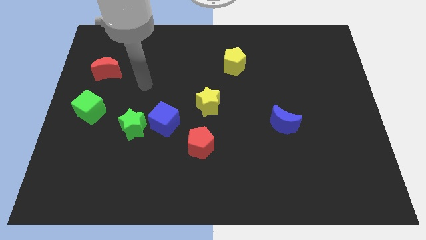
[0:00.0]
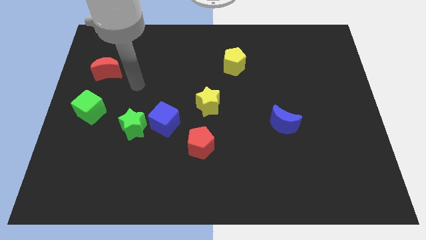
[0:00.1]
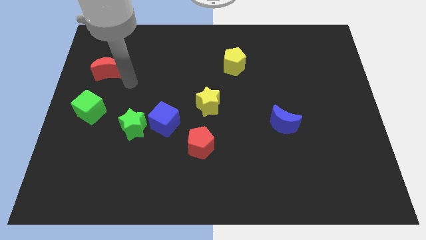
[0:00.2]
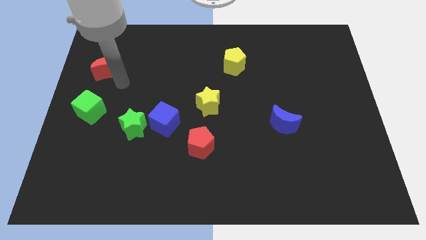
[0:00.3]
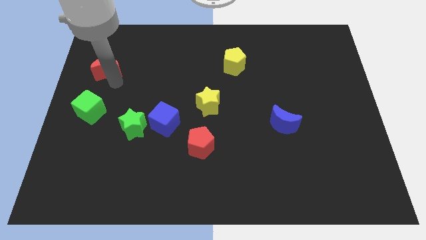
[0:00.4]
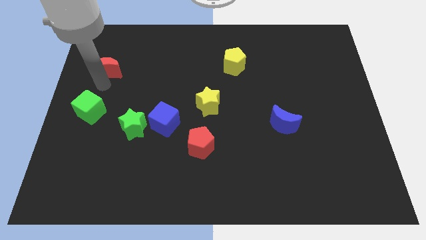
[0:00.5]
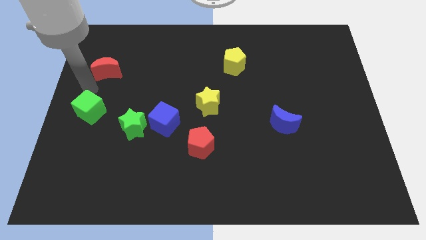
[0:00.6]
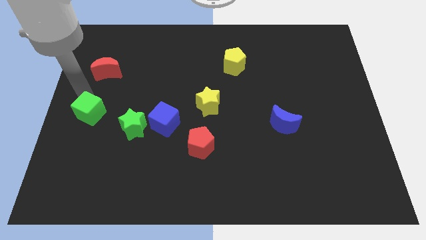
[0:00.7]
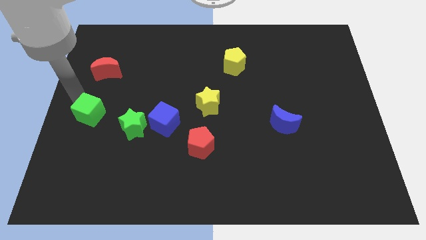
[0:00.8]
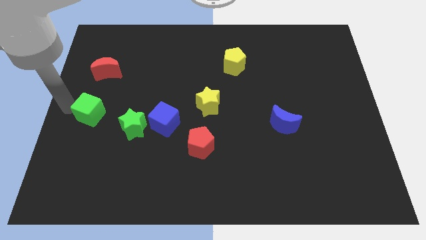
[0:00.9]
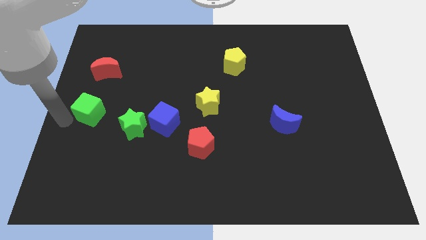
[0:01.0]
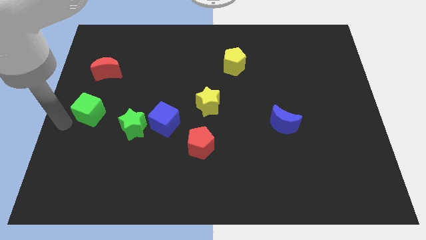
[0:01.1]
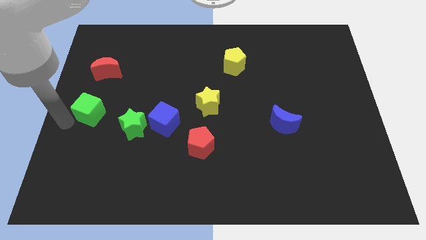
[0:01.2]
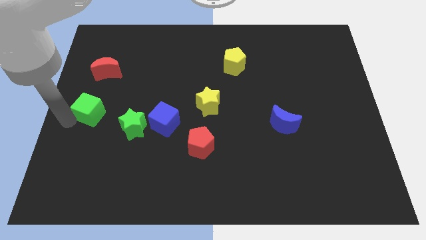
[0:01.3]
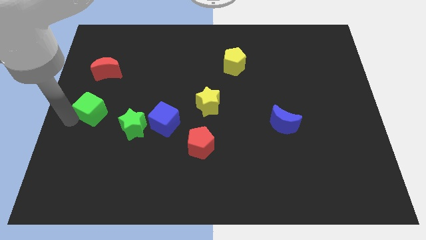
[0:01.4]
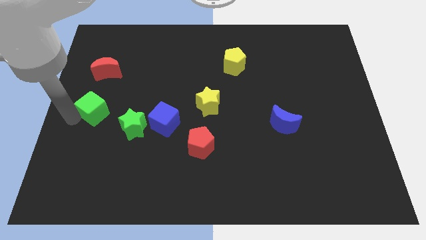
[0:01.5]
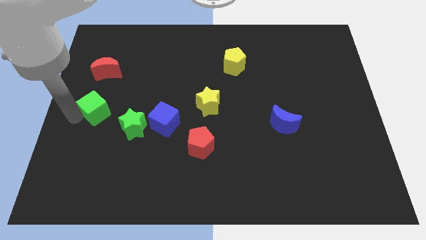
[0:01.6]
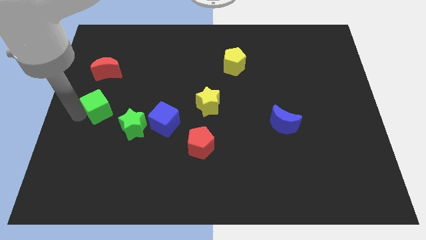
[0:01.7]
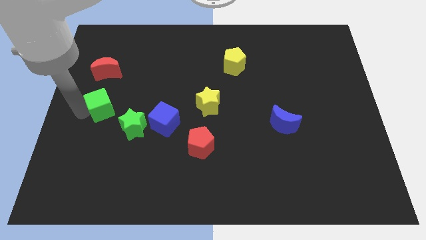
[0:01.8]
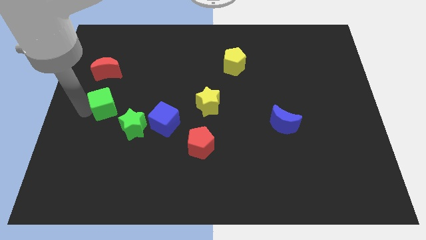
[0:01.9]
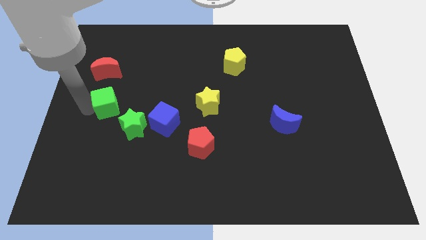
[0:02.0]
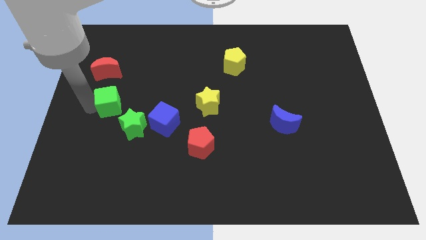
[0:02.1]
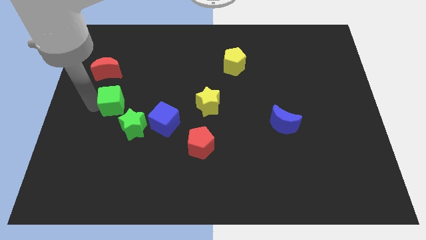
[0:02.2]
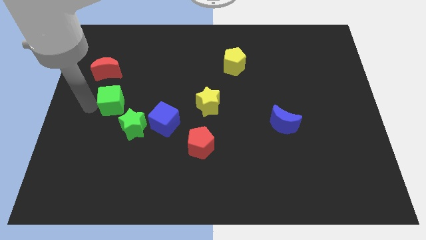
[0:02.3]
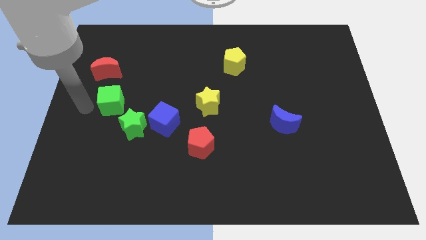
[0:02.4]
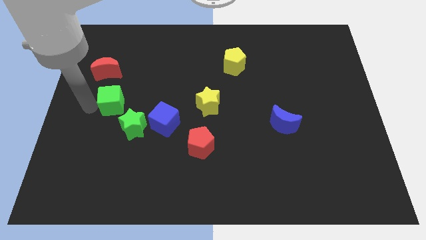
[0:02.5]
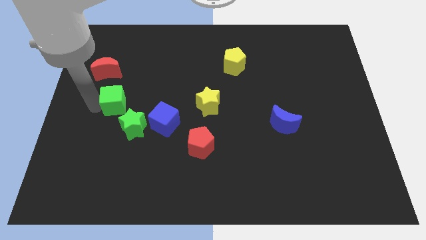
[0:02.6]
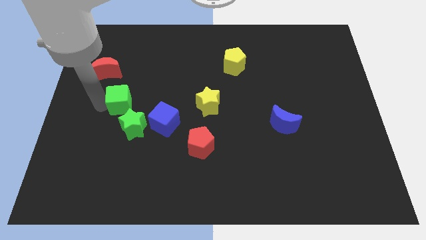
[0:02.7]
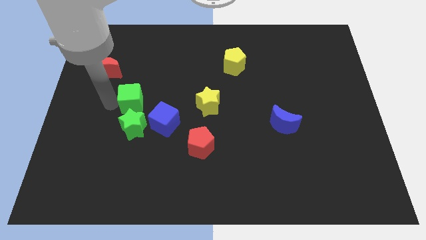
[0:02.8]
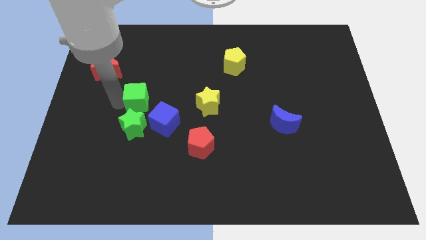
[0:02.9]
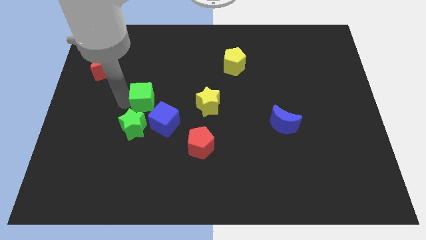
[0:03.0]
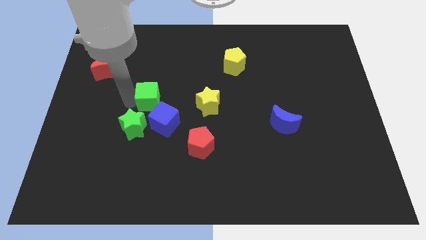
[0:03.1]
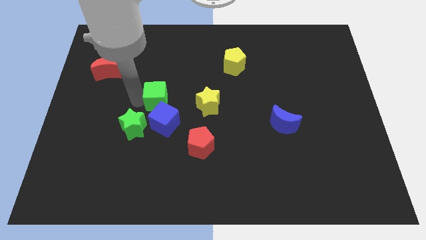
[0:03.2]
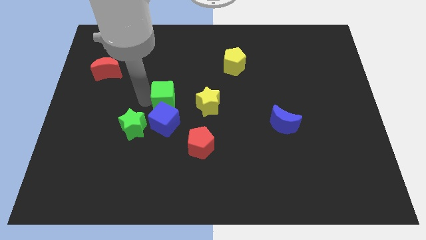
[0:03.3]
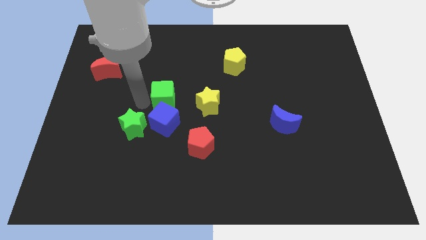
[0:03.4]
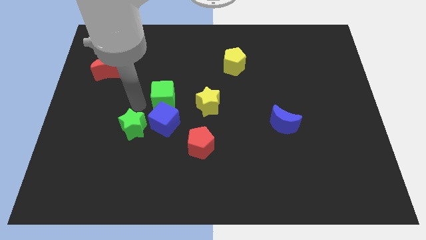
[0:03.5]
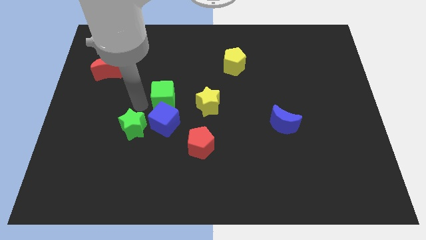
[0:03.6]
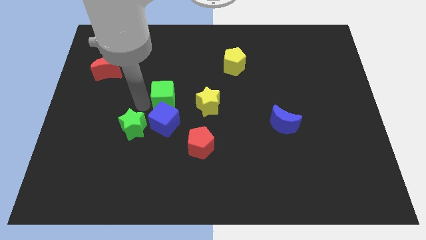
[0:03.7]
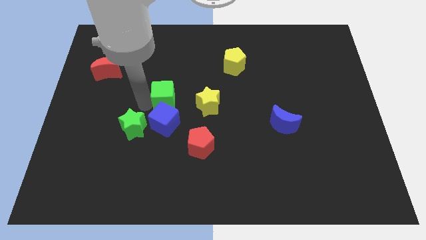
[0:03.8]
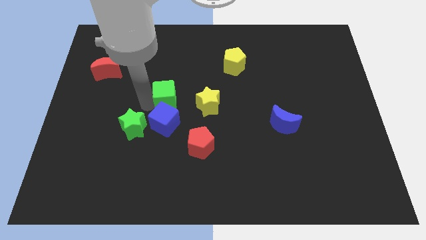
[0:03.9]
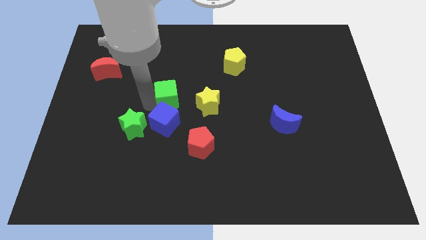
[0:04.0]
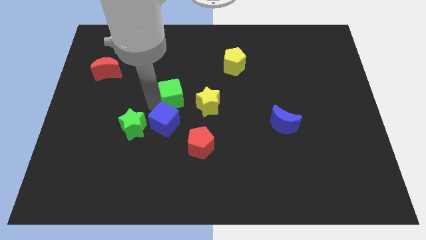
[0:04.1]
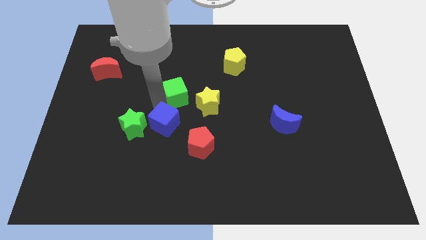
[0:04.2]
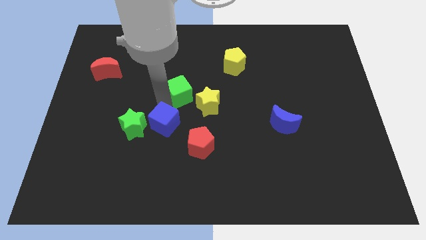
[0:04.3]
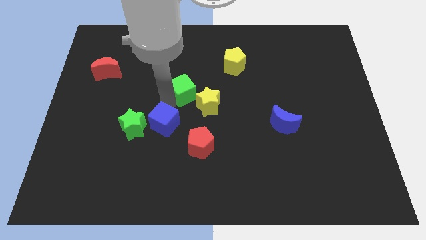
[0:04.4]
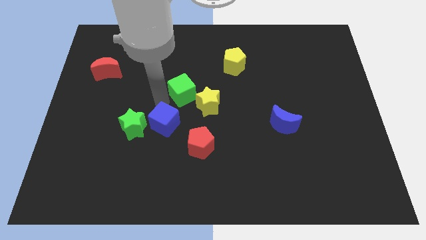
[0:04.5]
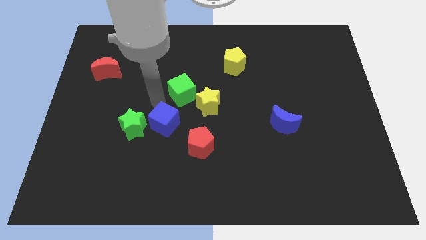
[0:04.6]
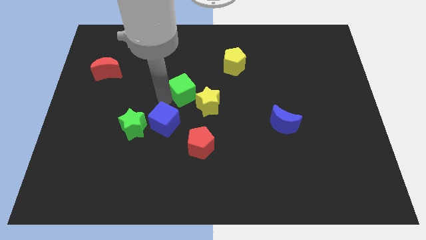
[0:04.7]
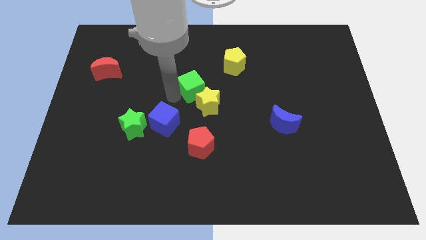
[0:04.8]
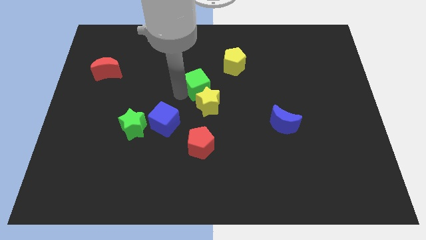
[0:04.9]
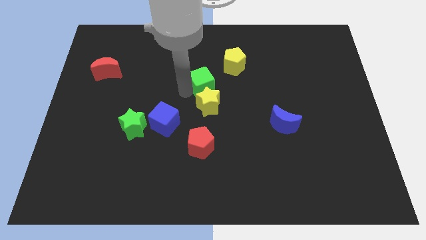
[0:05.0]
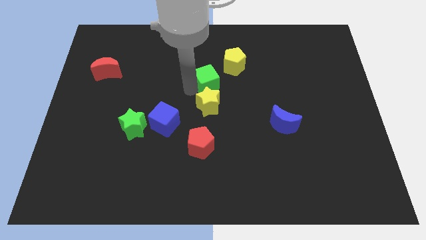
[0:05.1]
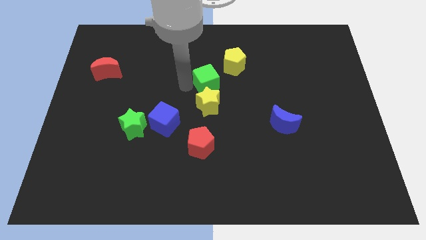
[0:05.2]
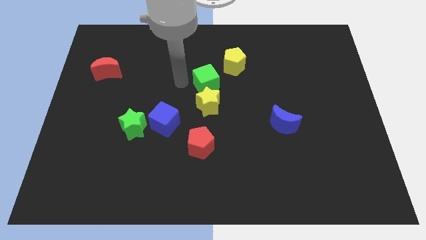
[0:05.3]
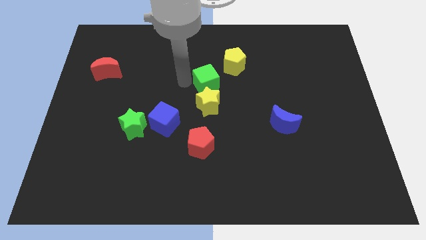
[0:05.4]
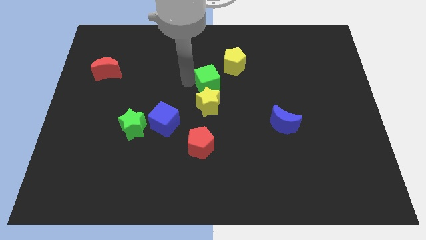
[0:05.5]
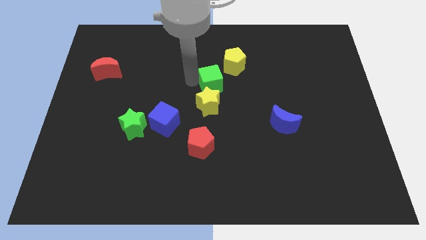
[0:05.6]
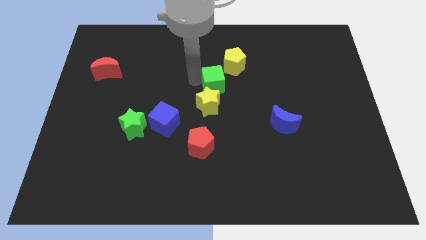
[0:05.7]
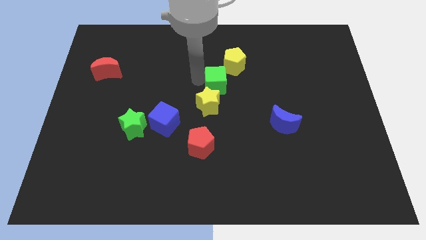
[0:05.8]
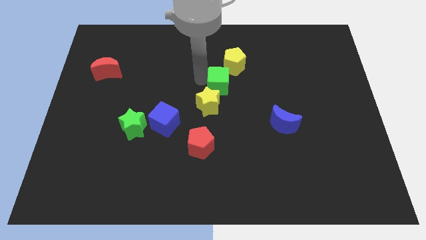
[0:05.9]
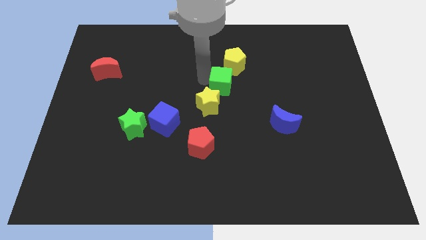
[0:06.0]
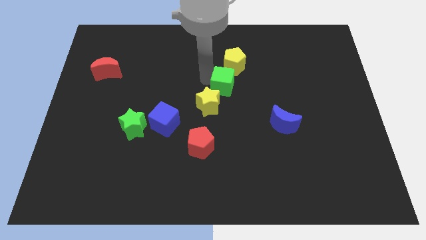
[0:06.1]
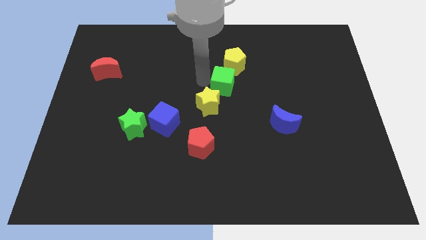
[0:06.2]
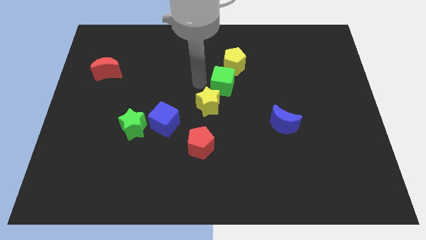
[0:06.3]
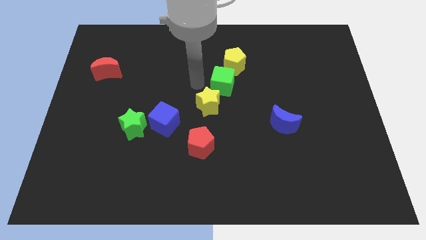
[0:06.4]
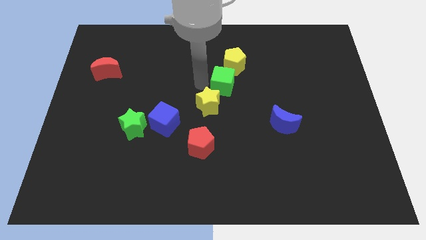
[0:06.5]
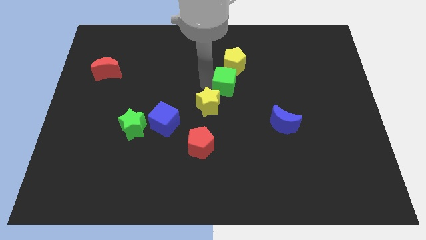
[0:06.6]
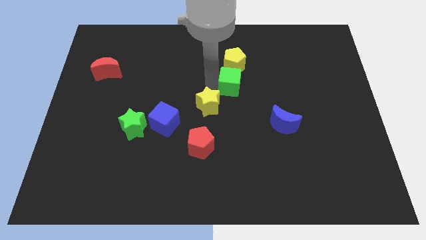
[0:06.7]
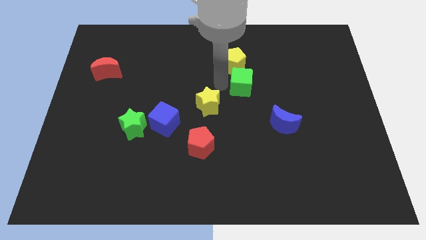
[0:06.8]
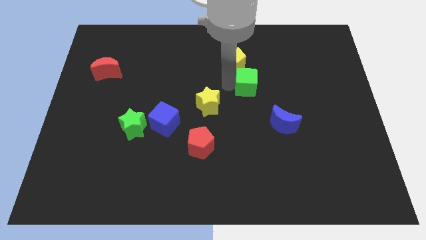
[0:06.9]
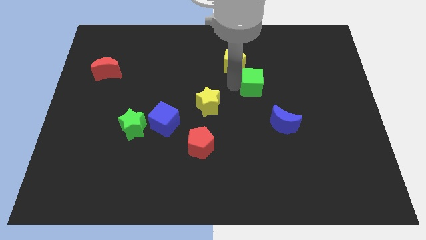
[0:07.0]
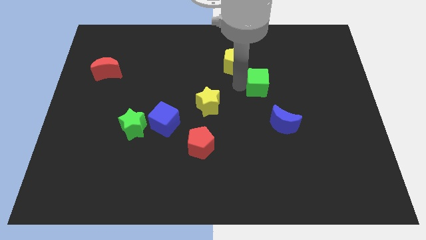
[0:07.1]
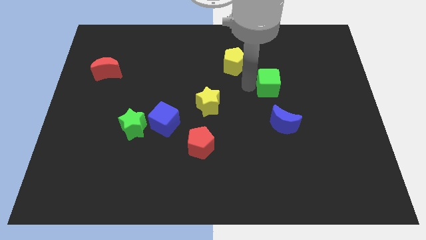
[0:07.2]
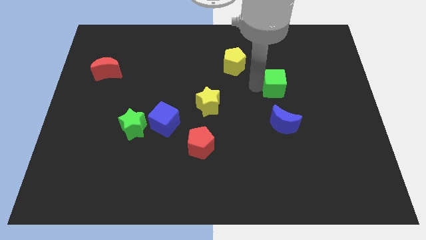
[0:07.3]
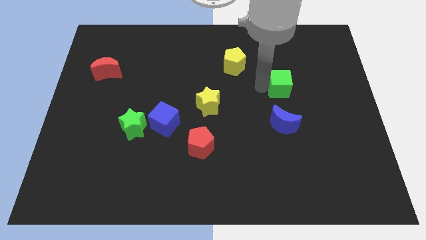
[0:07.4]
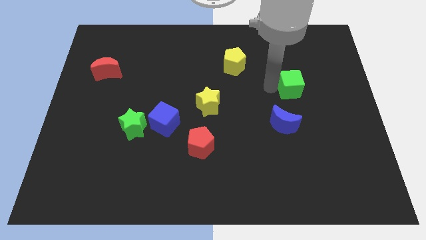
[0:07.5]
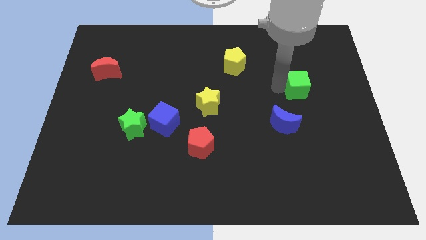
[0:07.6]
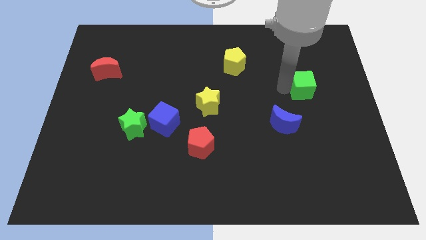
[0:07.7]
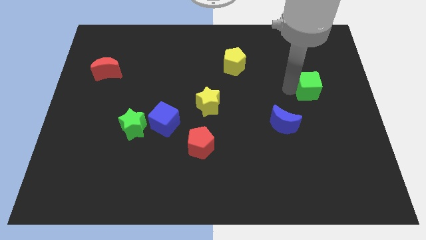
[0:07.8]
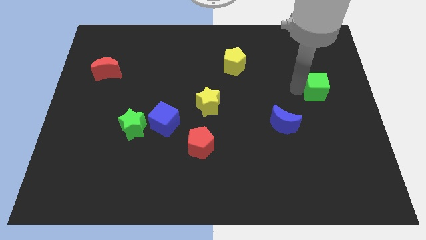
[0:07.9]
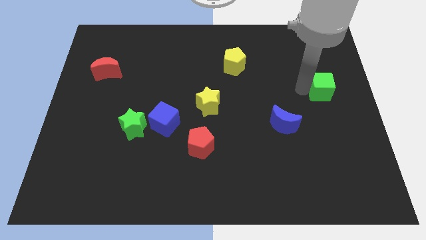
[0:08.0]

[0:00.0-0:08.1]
move the green cube to the right side of the board
